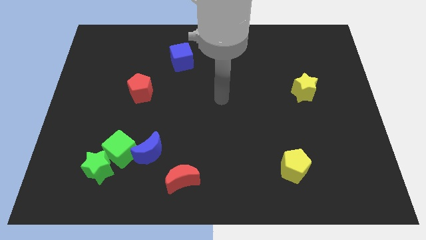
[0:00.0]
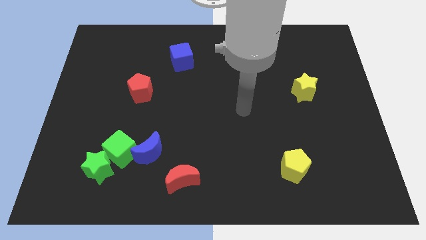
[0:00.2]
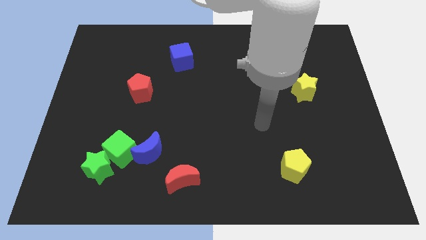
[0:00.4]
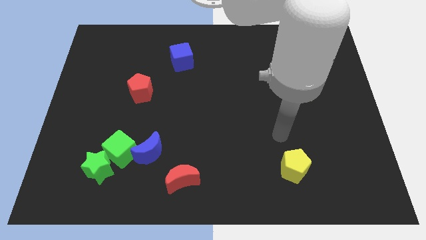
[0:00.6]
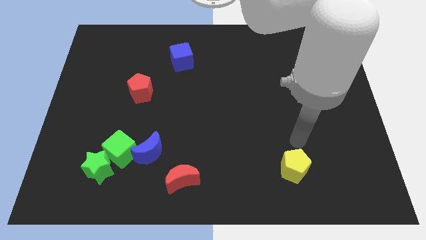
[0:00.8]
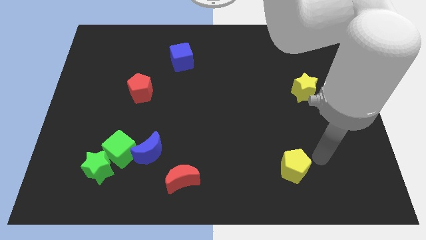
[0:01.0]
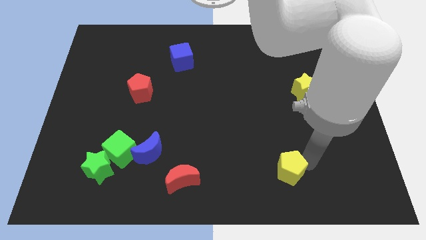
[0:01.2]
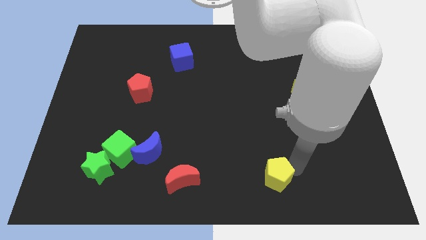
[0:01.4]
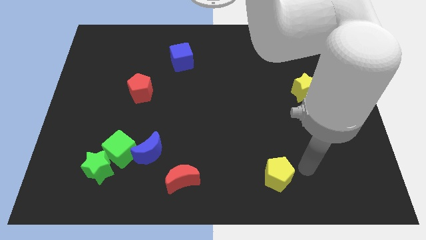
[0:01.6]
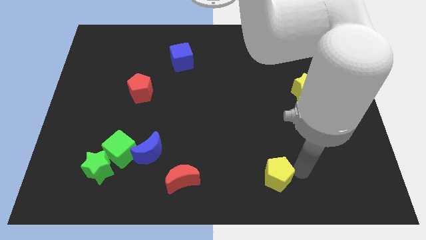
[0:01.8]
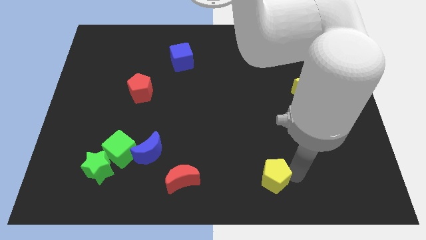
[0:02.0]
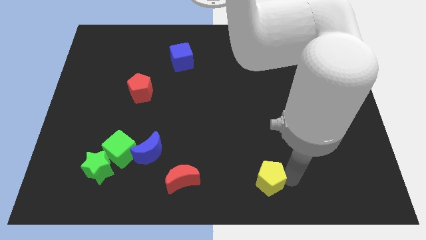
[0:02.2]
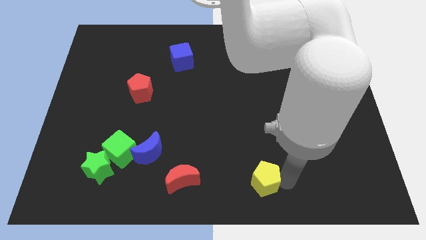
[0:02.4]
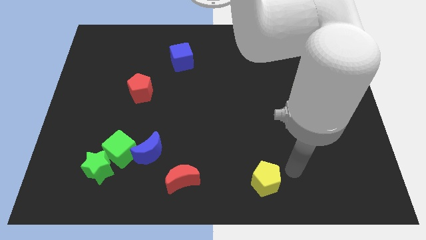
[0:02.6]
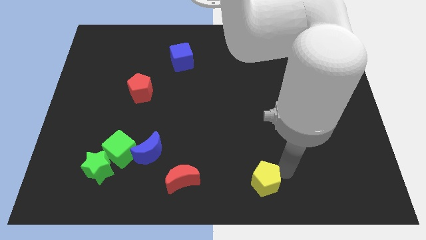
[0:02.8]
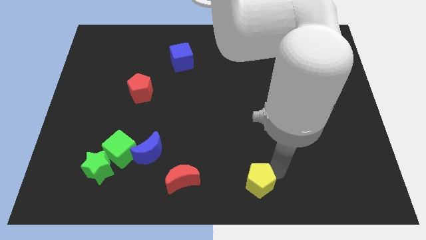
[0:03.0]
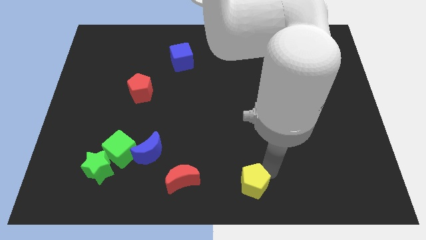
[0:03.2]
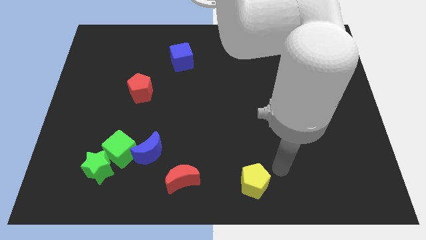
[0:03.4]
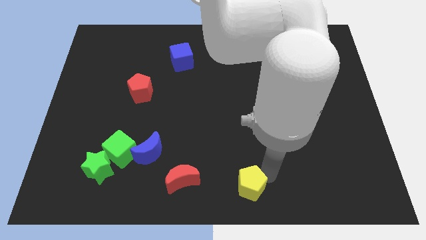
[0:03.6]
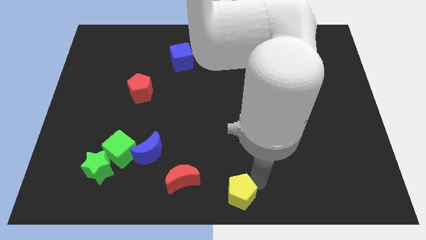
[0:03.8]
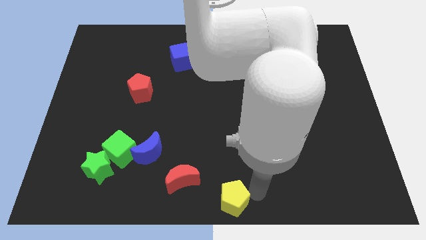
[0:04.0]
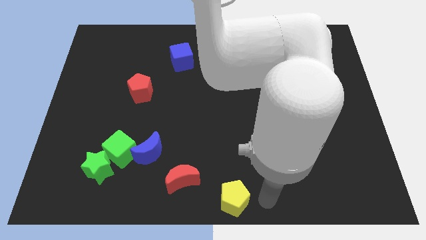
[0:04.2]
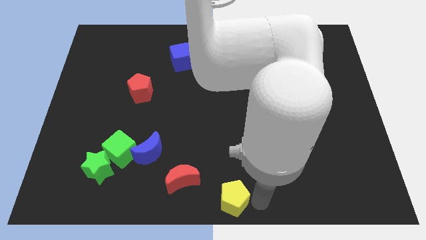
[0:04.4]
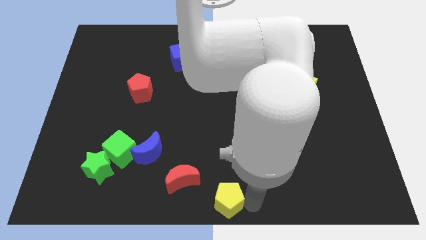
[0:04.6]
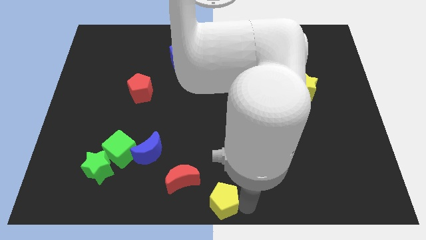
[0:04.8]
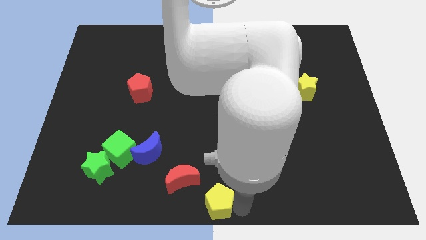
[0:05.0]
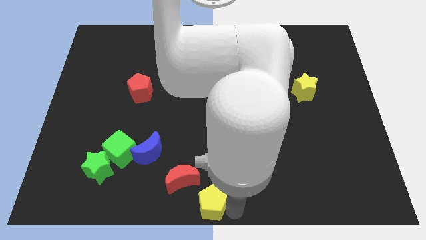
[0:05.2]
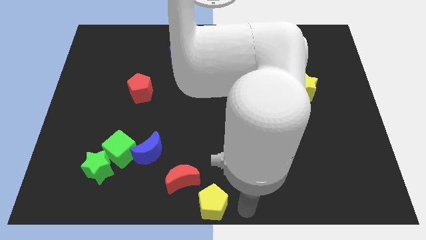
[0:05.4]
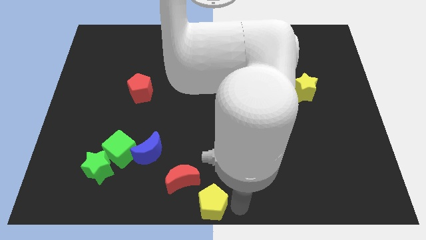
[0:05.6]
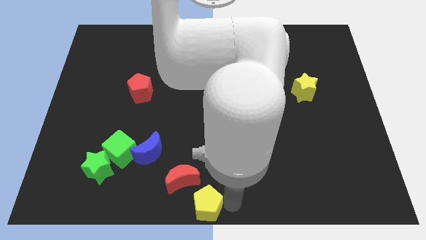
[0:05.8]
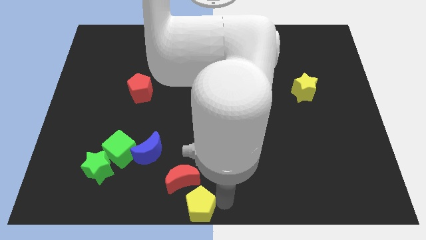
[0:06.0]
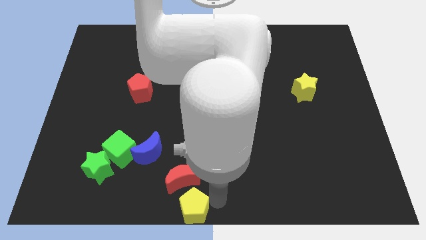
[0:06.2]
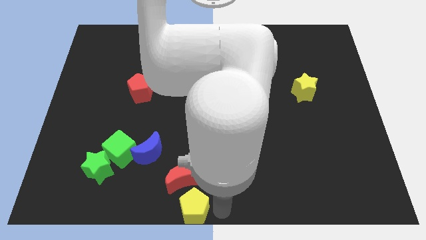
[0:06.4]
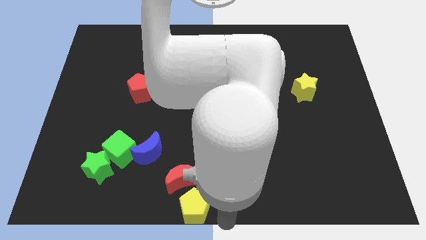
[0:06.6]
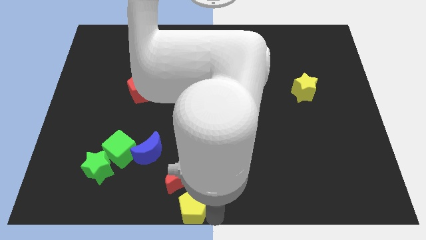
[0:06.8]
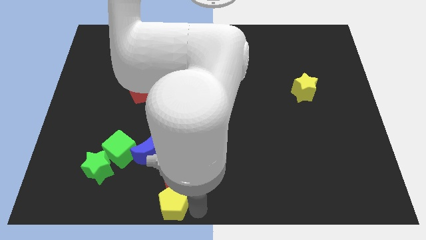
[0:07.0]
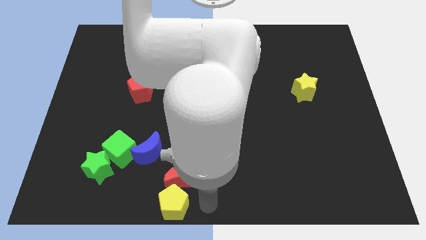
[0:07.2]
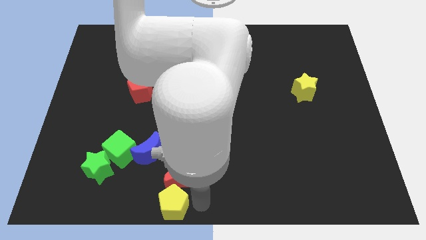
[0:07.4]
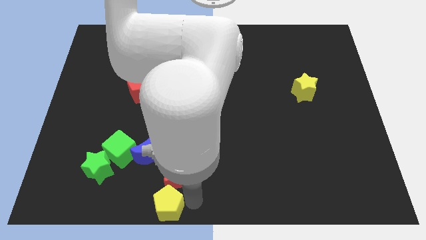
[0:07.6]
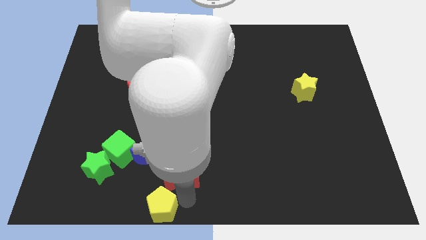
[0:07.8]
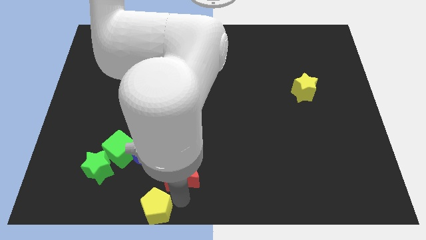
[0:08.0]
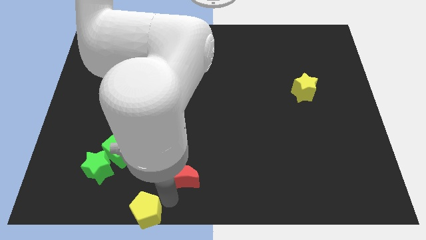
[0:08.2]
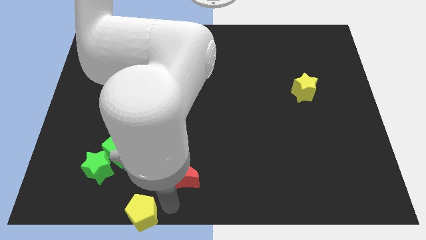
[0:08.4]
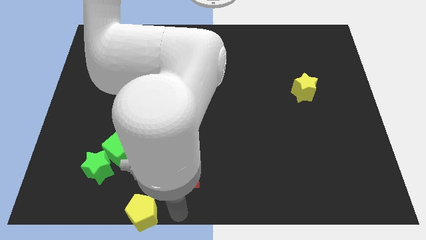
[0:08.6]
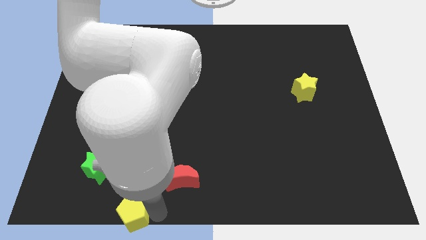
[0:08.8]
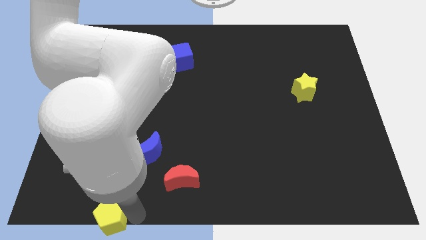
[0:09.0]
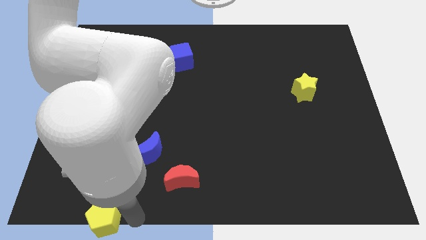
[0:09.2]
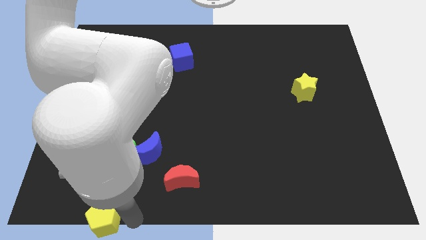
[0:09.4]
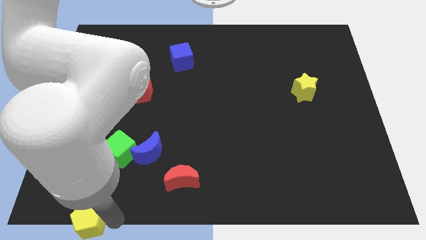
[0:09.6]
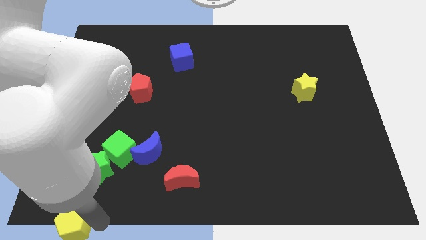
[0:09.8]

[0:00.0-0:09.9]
put the yellow pentagon to the bottom left

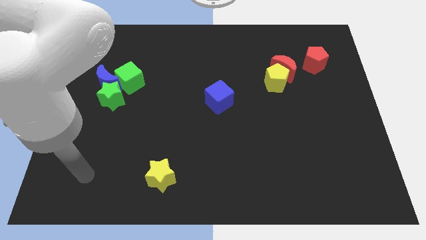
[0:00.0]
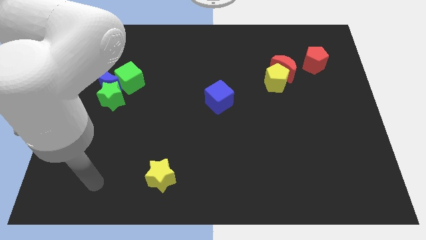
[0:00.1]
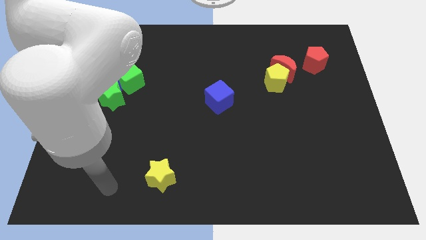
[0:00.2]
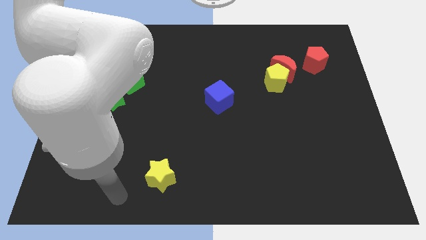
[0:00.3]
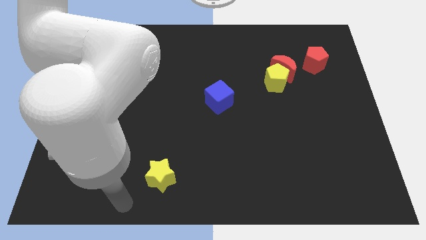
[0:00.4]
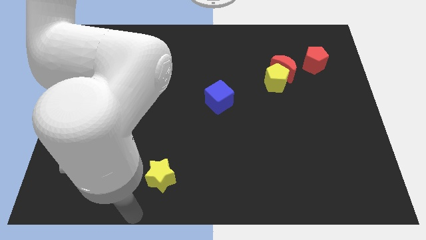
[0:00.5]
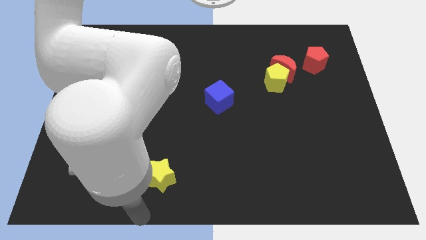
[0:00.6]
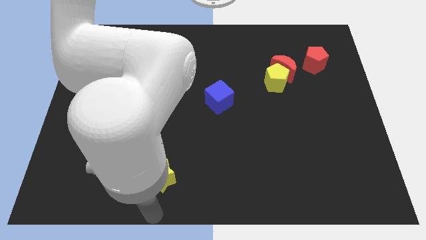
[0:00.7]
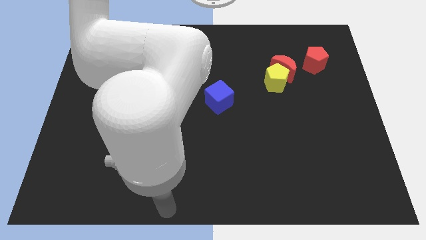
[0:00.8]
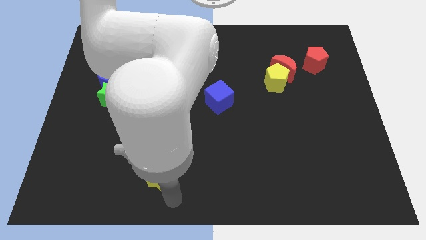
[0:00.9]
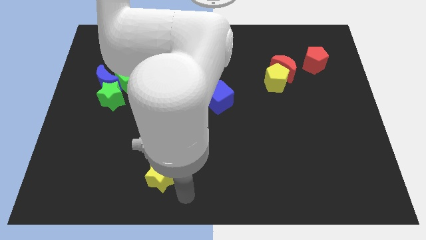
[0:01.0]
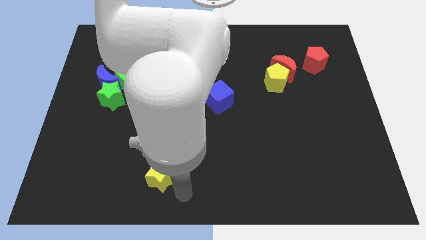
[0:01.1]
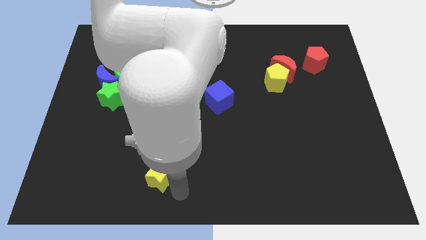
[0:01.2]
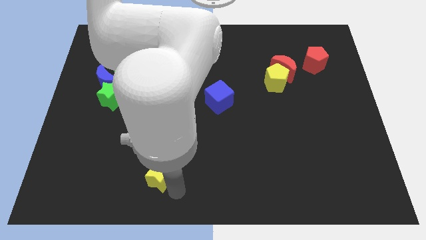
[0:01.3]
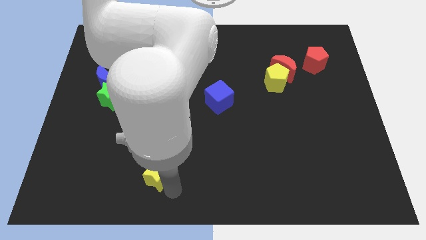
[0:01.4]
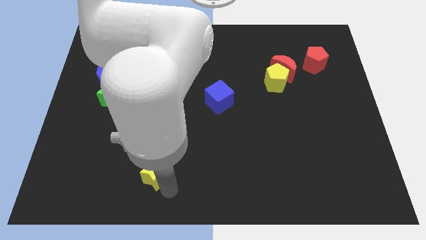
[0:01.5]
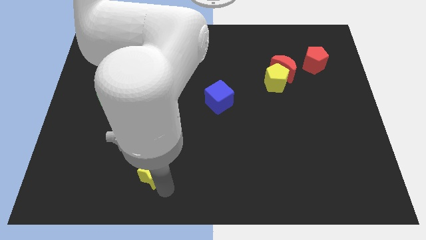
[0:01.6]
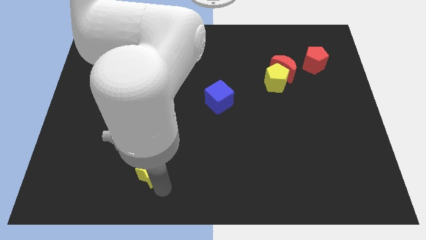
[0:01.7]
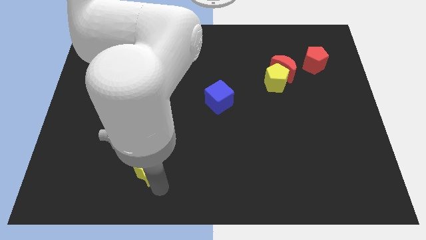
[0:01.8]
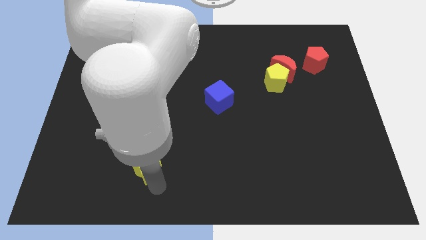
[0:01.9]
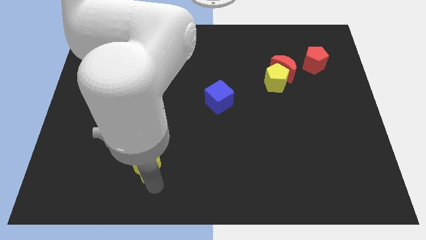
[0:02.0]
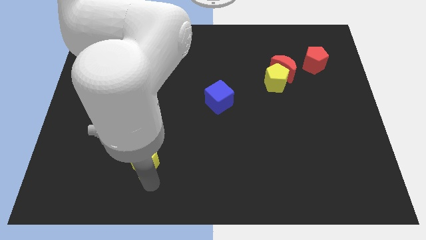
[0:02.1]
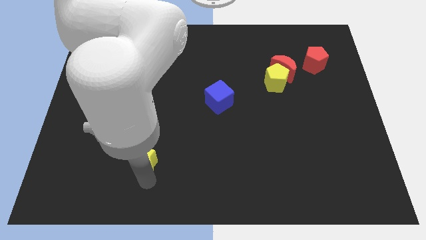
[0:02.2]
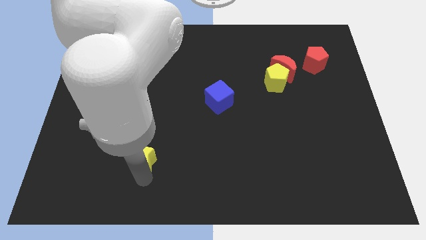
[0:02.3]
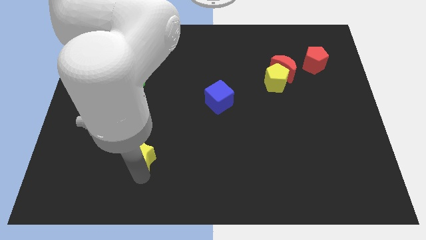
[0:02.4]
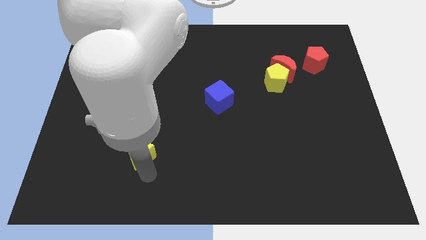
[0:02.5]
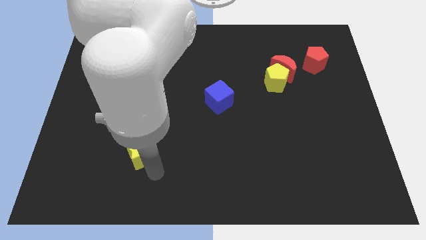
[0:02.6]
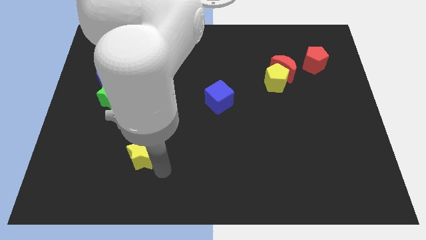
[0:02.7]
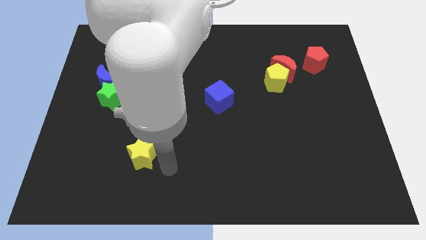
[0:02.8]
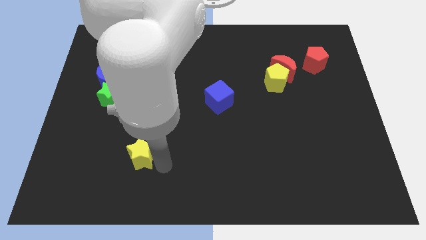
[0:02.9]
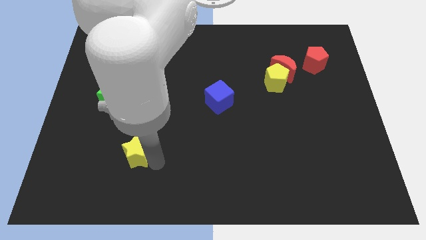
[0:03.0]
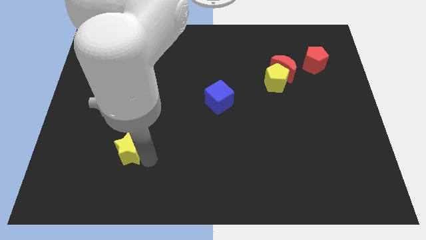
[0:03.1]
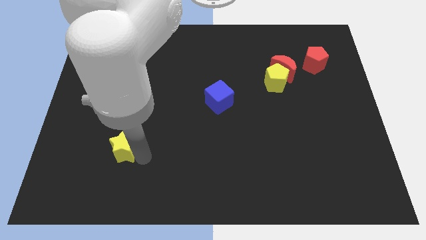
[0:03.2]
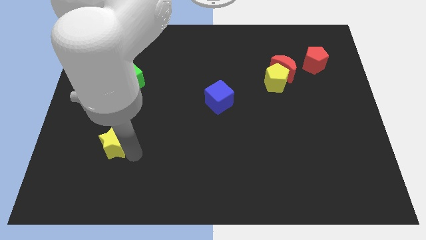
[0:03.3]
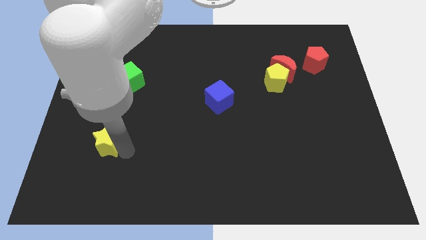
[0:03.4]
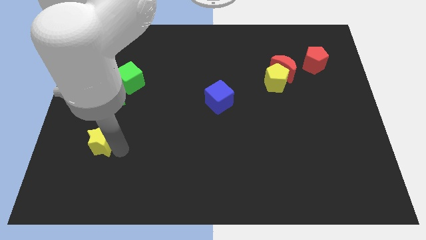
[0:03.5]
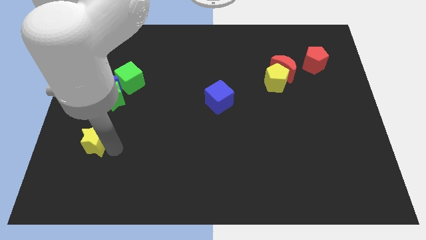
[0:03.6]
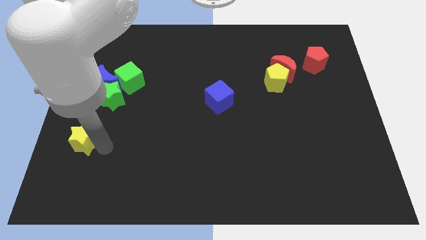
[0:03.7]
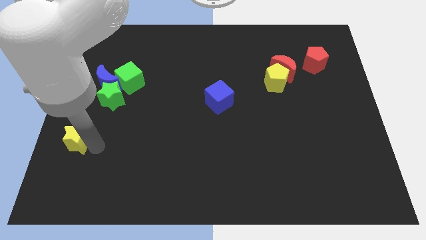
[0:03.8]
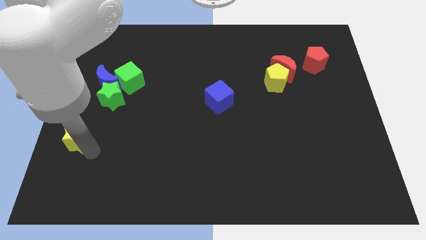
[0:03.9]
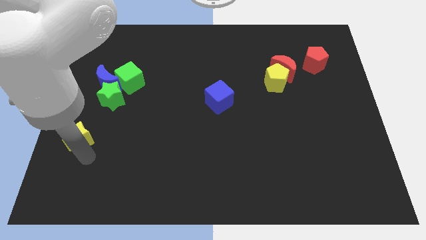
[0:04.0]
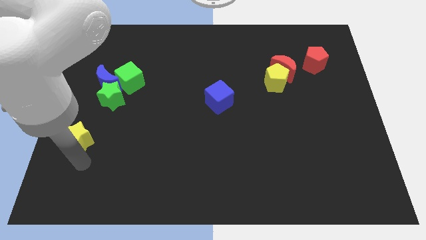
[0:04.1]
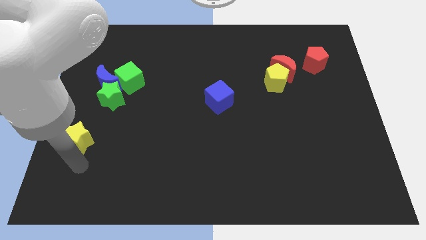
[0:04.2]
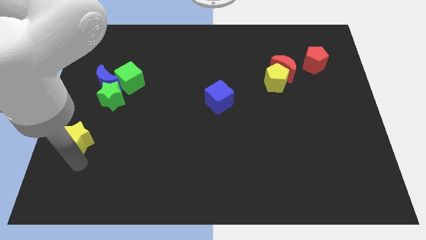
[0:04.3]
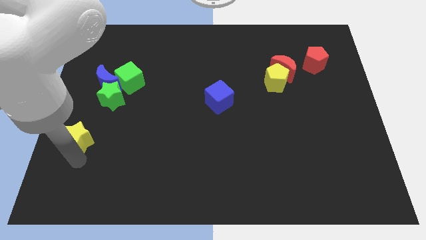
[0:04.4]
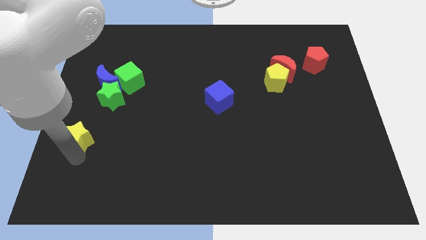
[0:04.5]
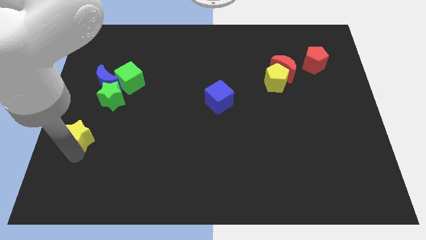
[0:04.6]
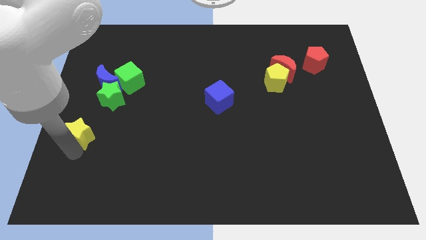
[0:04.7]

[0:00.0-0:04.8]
slide the yellow star to the left side of the board
